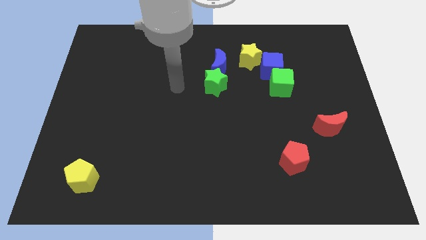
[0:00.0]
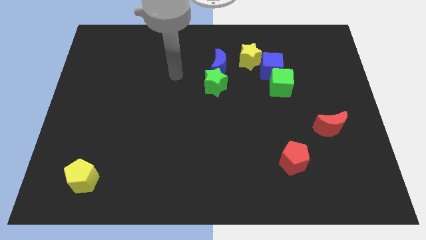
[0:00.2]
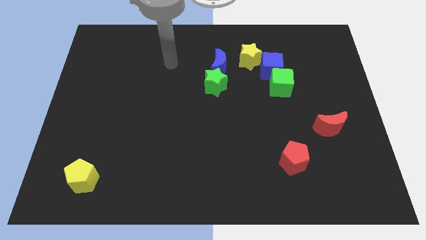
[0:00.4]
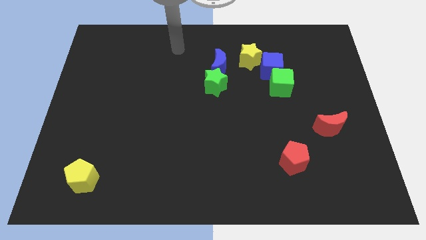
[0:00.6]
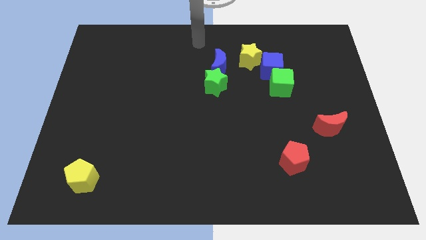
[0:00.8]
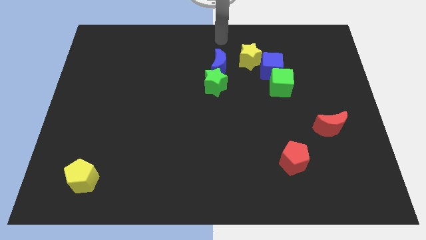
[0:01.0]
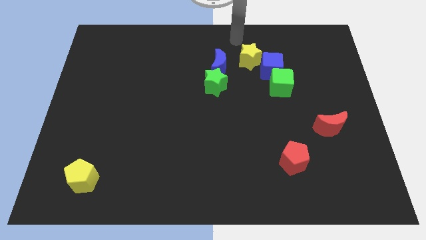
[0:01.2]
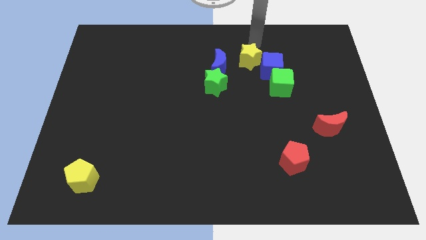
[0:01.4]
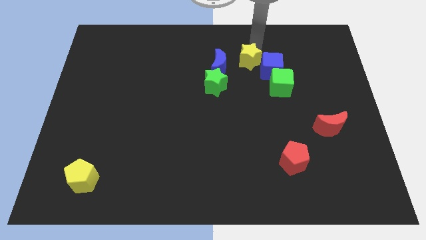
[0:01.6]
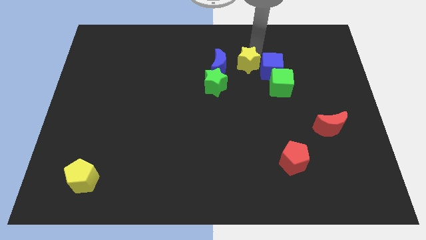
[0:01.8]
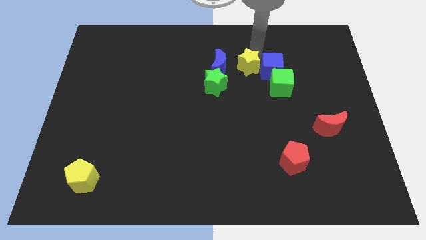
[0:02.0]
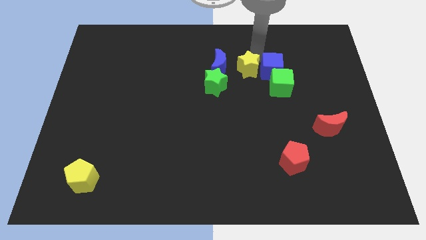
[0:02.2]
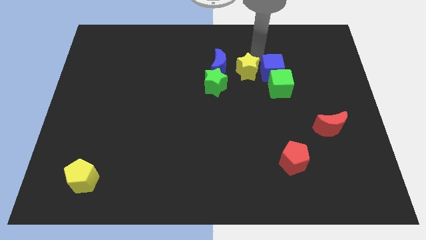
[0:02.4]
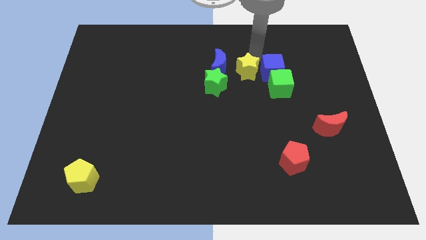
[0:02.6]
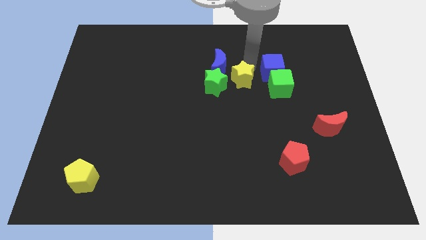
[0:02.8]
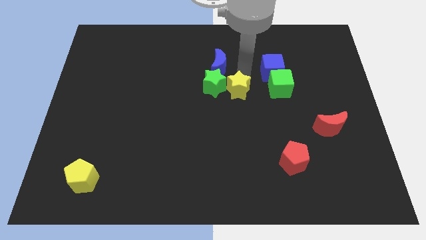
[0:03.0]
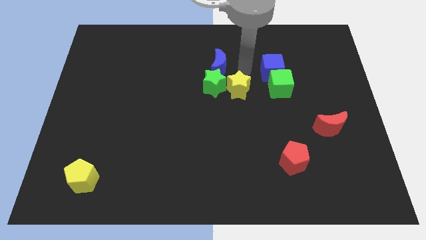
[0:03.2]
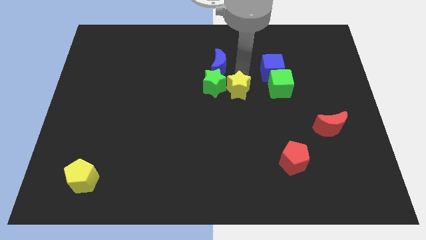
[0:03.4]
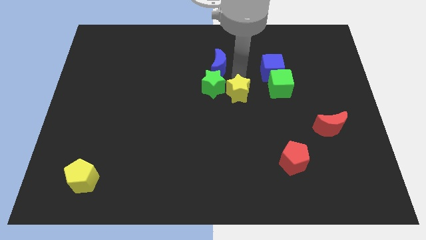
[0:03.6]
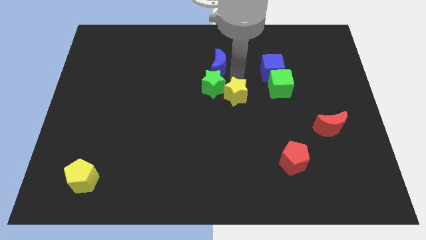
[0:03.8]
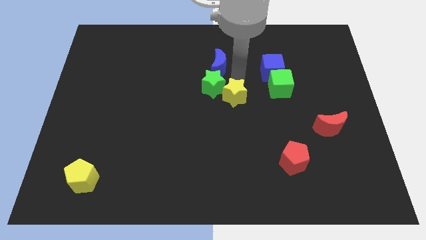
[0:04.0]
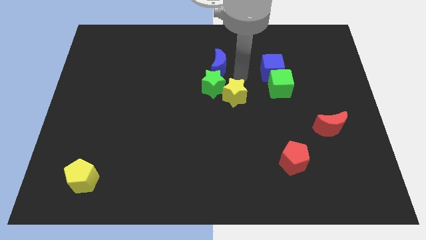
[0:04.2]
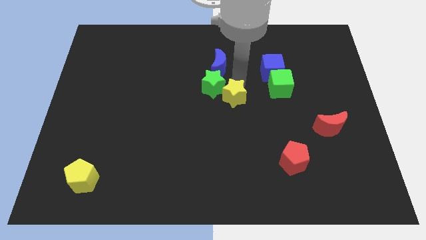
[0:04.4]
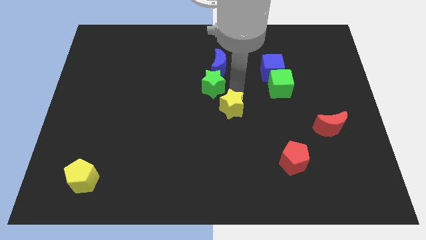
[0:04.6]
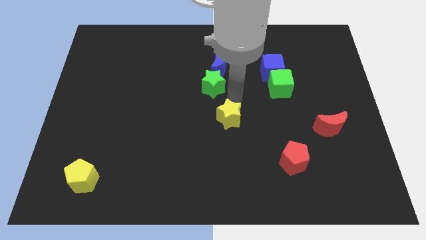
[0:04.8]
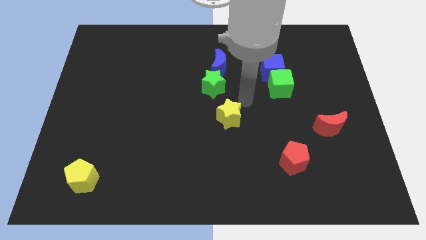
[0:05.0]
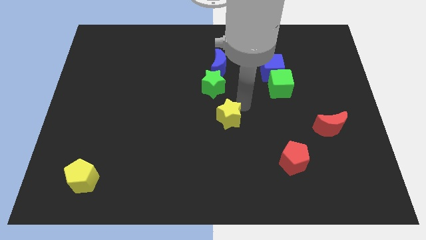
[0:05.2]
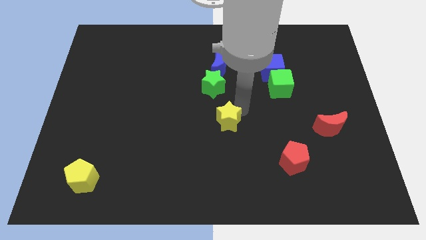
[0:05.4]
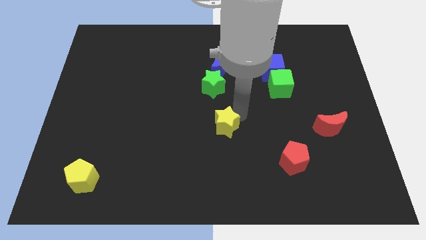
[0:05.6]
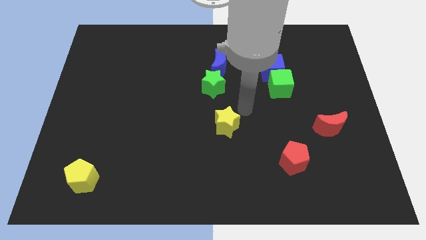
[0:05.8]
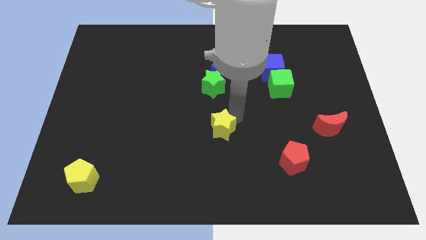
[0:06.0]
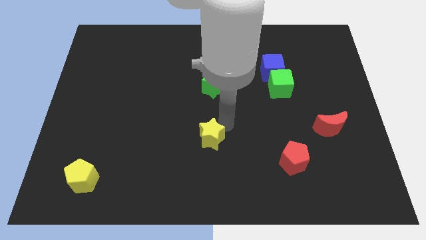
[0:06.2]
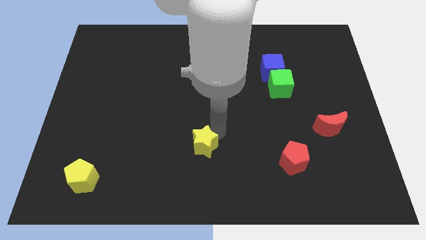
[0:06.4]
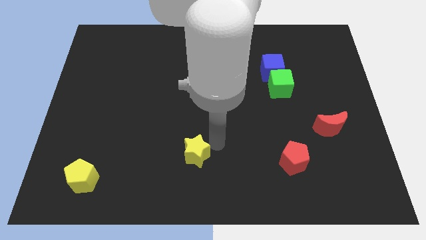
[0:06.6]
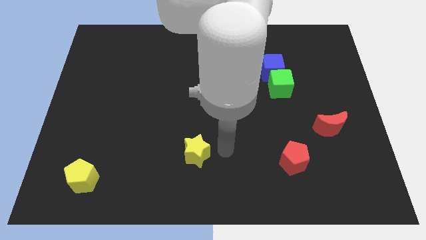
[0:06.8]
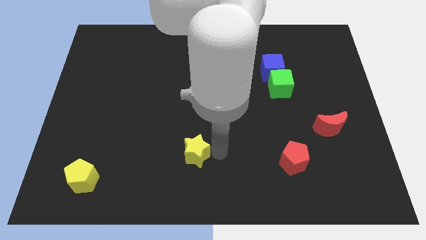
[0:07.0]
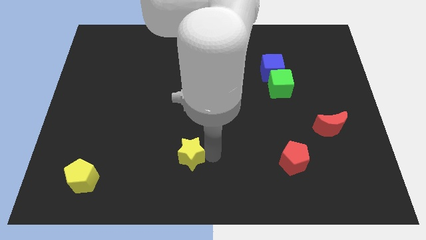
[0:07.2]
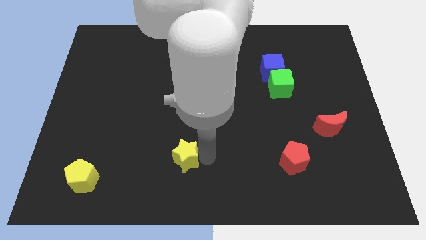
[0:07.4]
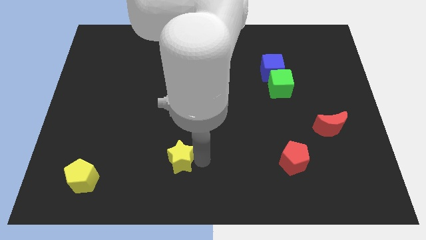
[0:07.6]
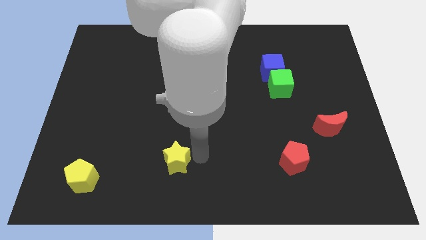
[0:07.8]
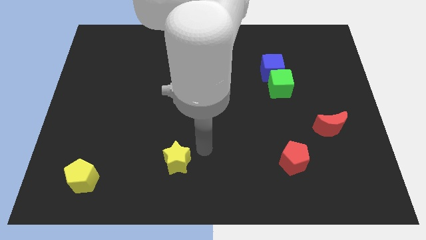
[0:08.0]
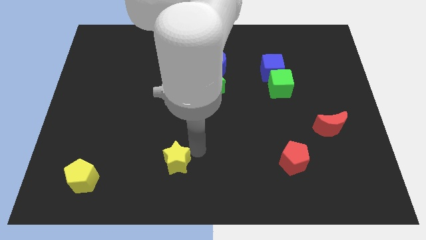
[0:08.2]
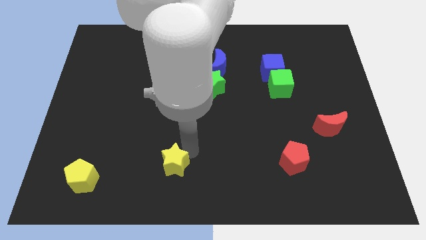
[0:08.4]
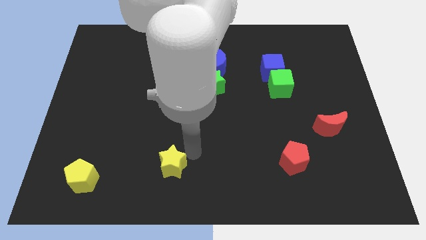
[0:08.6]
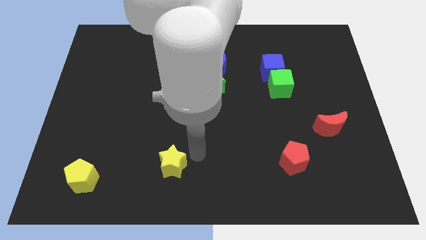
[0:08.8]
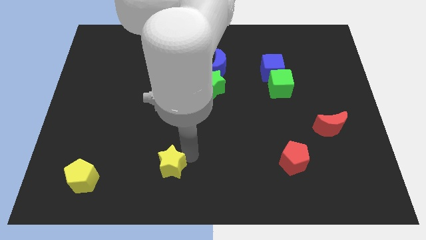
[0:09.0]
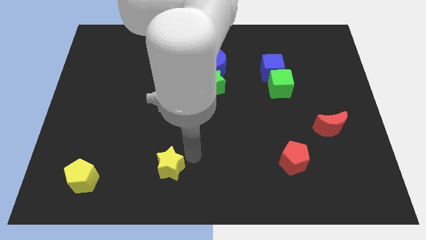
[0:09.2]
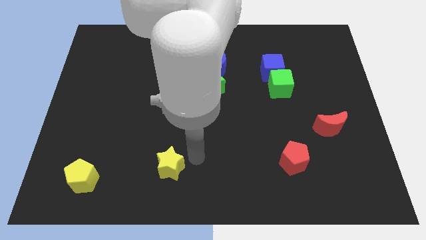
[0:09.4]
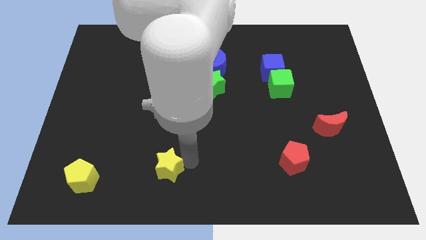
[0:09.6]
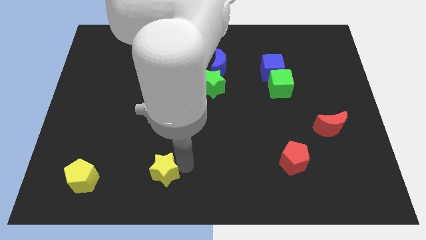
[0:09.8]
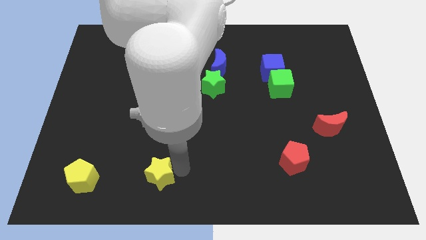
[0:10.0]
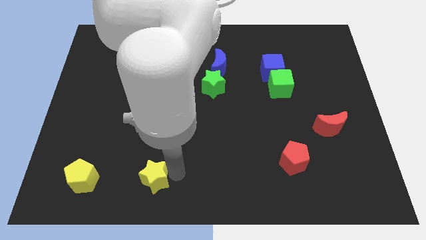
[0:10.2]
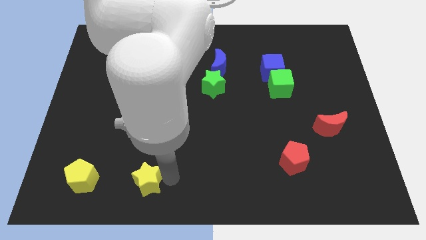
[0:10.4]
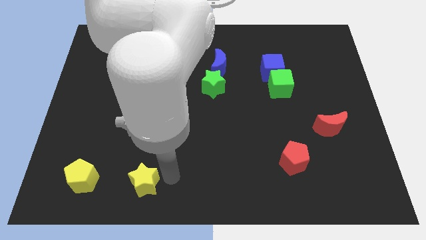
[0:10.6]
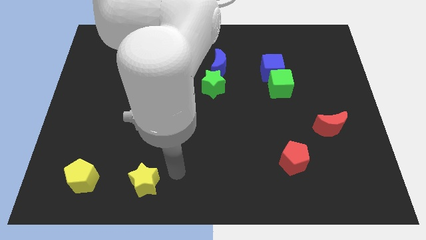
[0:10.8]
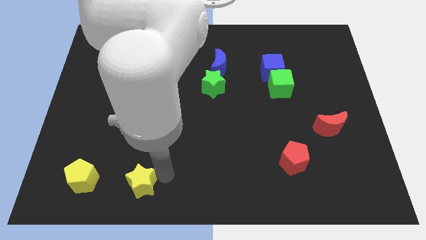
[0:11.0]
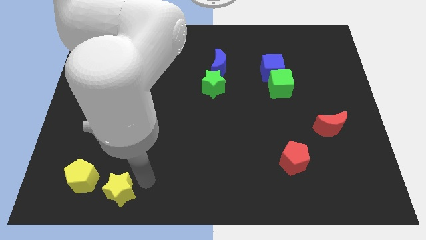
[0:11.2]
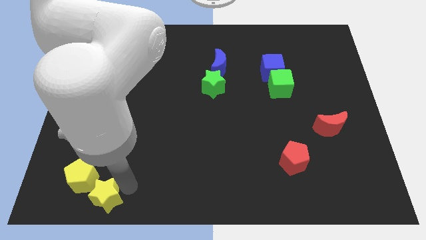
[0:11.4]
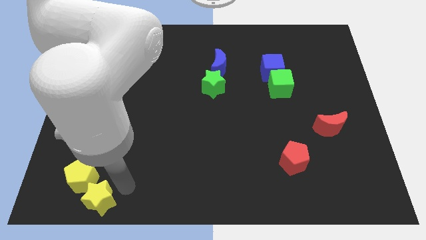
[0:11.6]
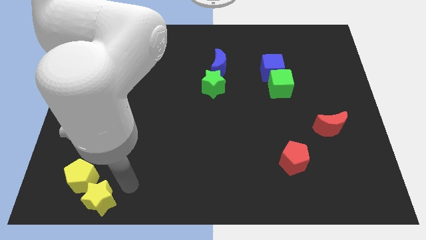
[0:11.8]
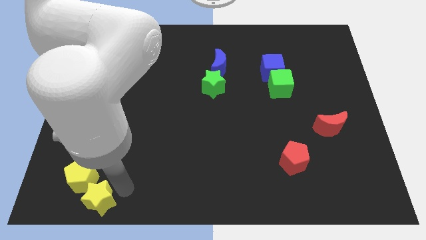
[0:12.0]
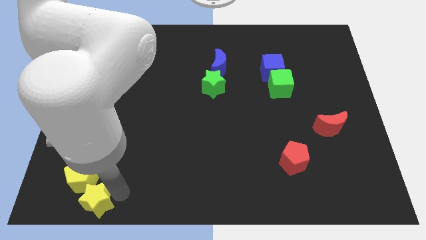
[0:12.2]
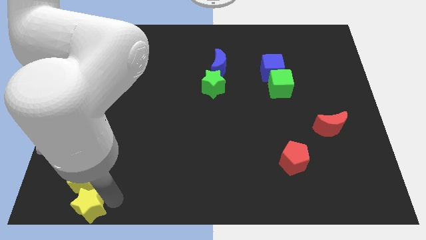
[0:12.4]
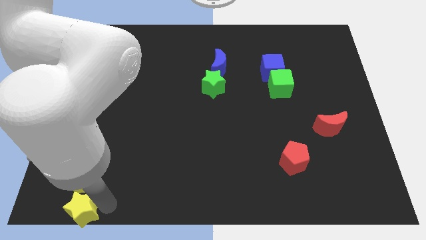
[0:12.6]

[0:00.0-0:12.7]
put the yellow star to the lower left corner
